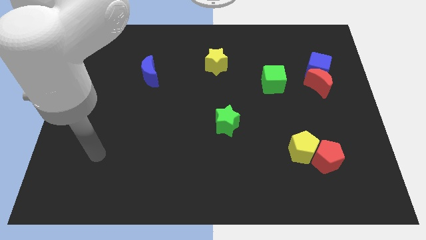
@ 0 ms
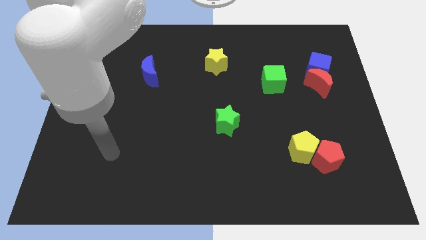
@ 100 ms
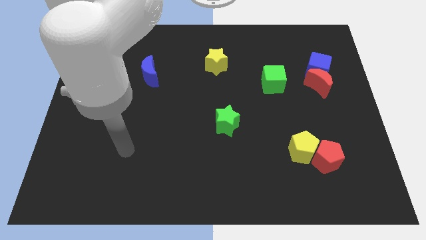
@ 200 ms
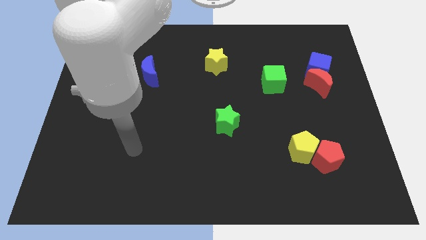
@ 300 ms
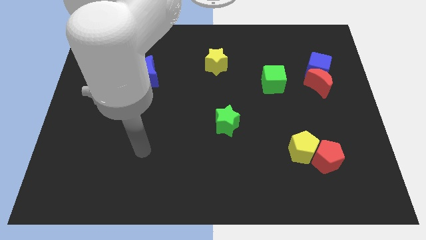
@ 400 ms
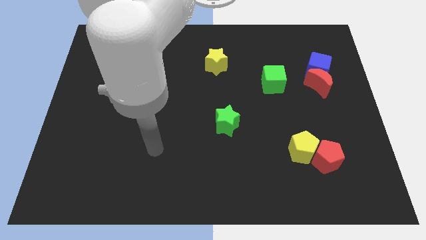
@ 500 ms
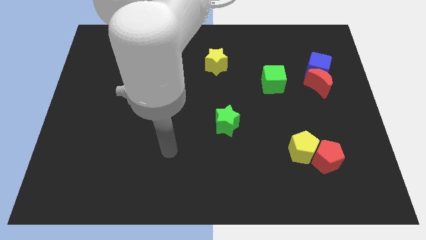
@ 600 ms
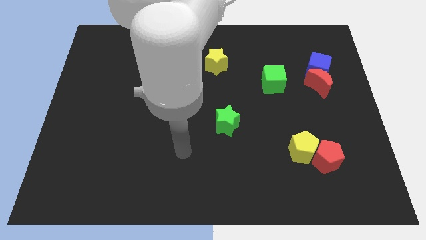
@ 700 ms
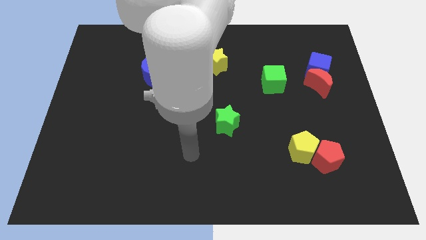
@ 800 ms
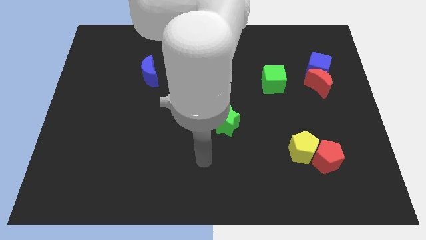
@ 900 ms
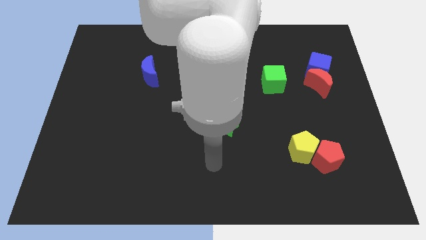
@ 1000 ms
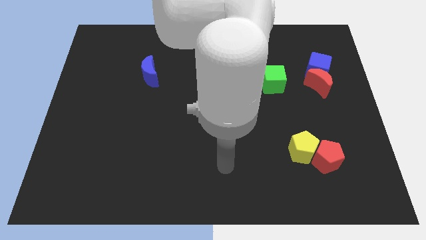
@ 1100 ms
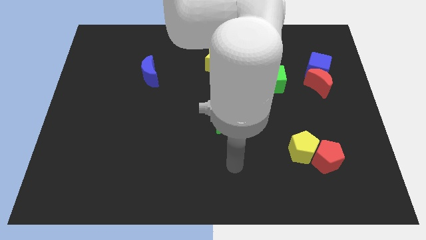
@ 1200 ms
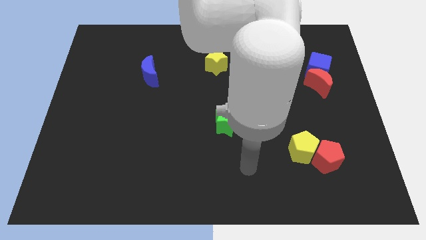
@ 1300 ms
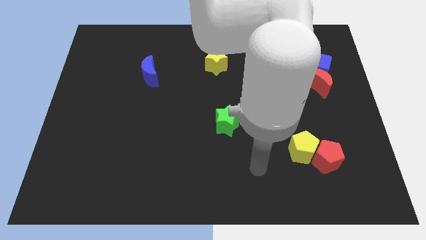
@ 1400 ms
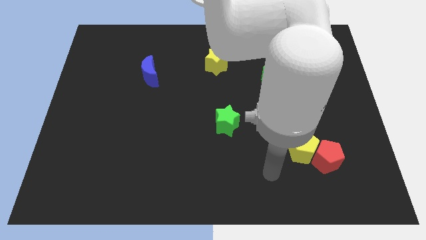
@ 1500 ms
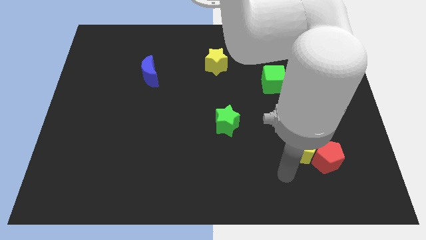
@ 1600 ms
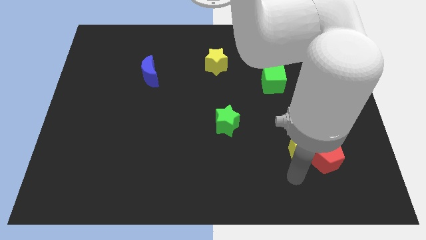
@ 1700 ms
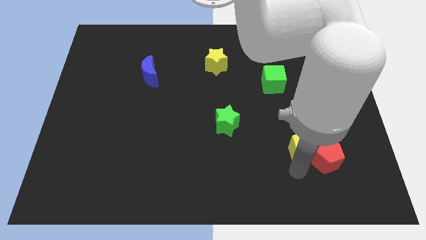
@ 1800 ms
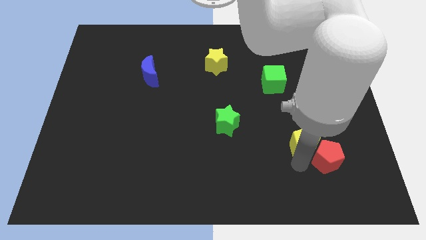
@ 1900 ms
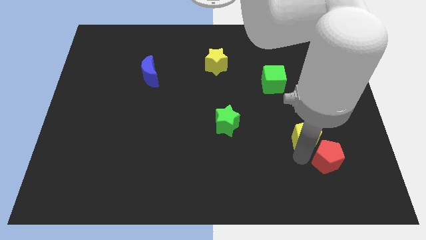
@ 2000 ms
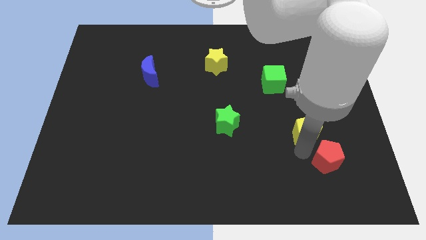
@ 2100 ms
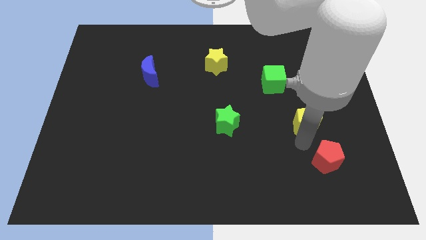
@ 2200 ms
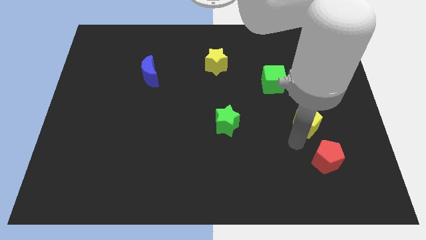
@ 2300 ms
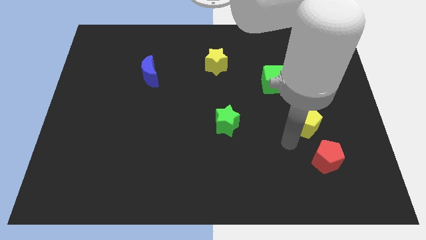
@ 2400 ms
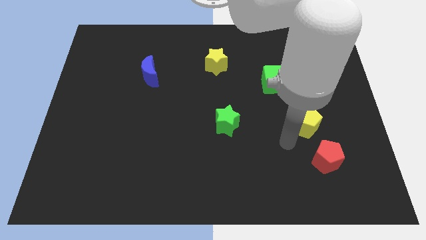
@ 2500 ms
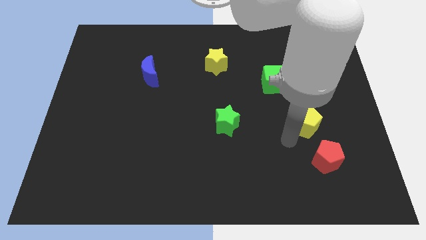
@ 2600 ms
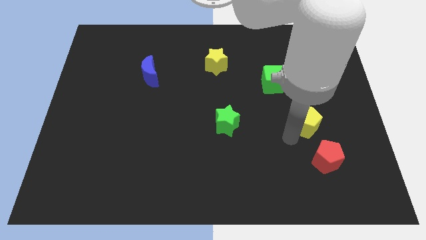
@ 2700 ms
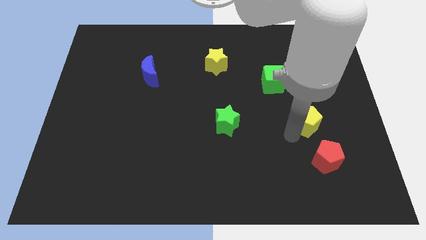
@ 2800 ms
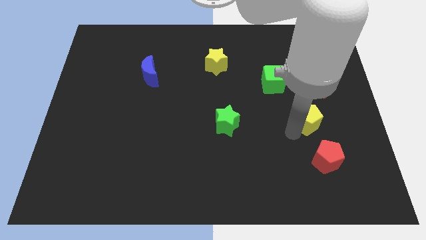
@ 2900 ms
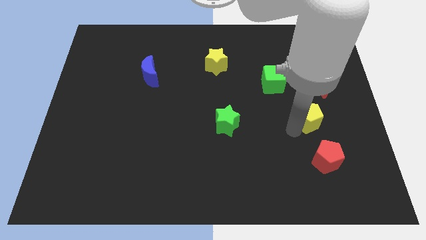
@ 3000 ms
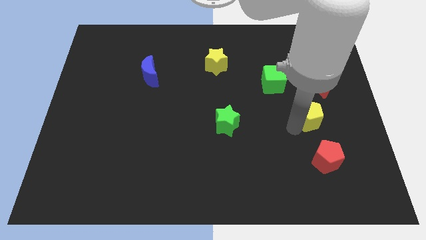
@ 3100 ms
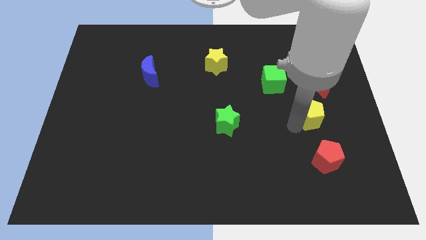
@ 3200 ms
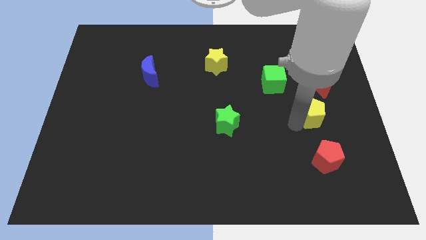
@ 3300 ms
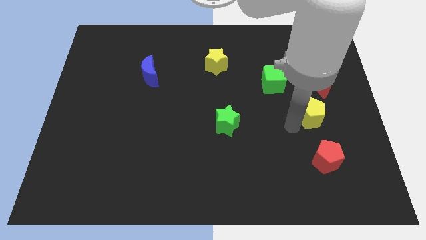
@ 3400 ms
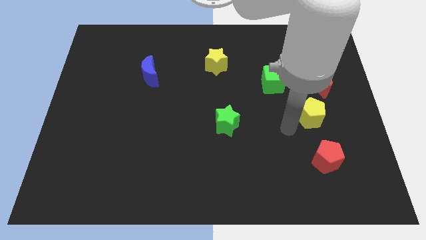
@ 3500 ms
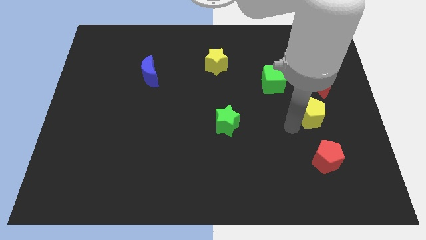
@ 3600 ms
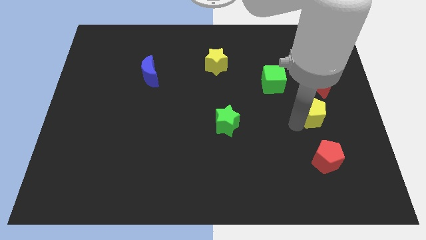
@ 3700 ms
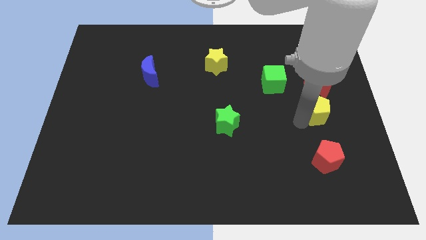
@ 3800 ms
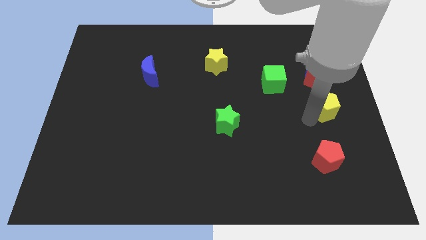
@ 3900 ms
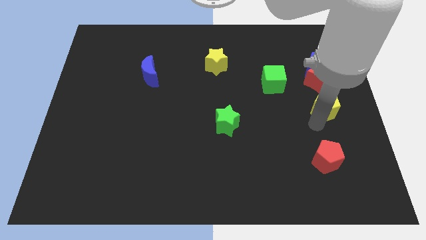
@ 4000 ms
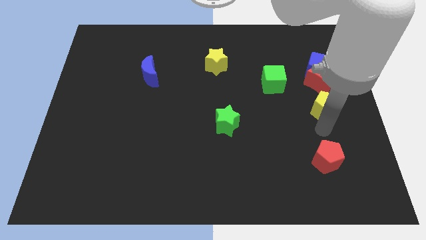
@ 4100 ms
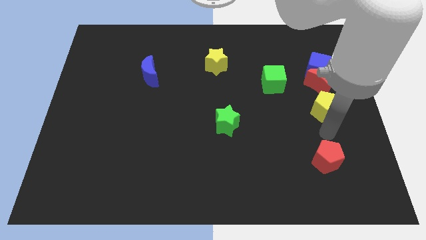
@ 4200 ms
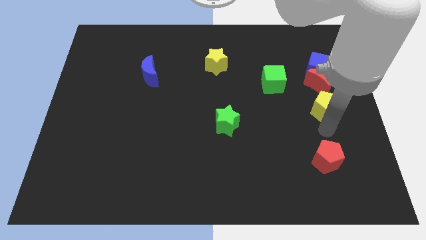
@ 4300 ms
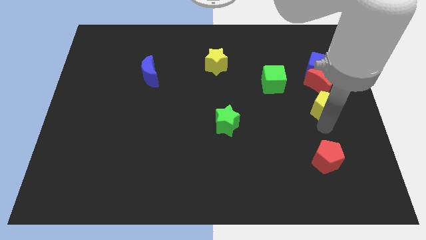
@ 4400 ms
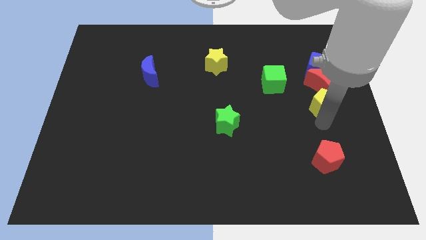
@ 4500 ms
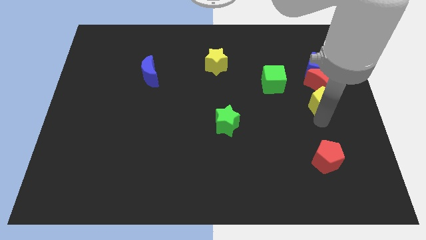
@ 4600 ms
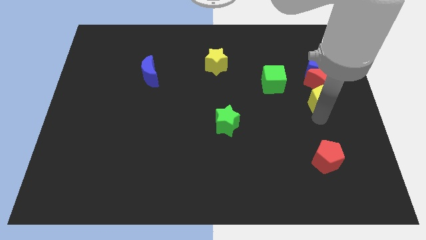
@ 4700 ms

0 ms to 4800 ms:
slide the yellow pentagon close to the red moon

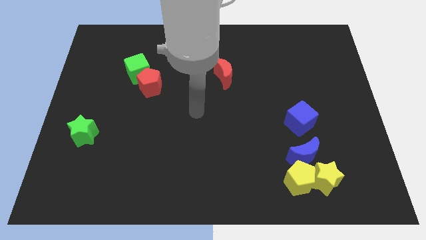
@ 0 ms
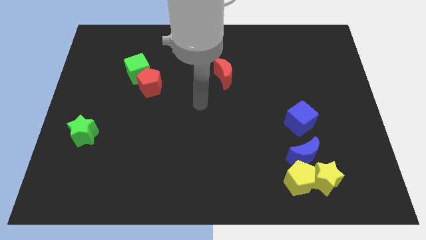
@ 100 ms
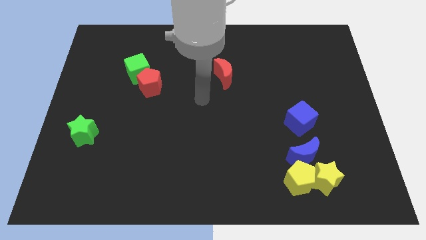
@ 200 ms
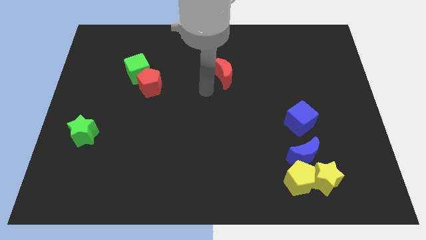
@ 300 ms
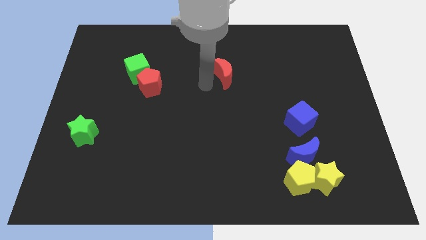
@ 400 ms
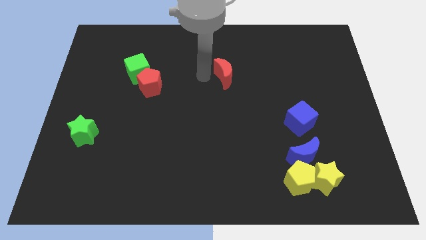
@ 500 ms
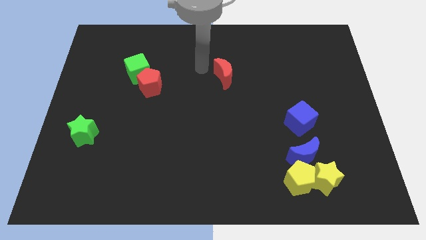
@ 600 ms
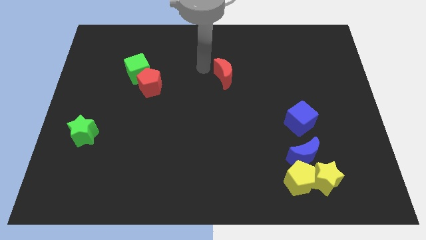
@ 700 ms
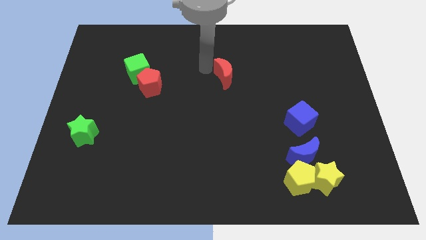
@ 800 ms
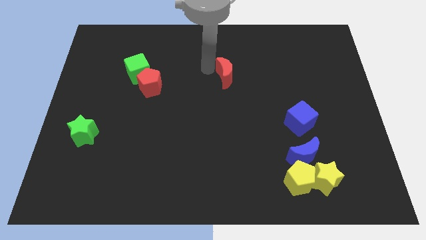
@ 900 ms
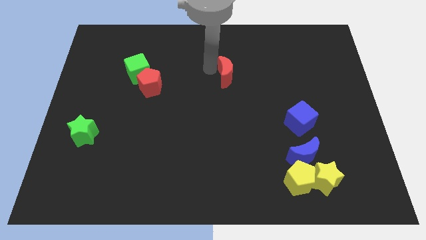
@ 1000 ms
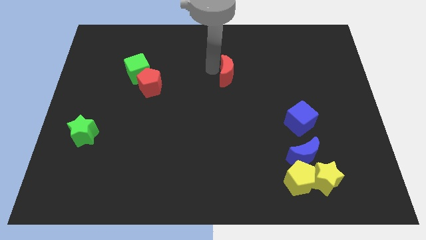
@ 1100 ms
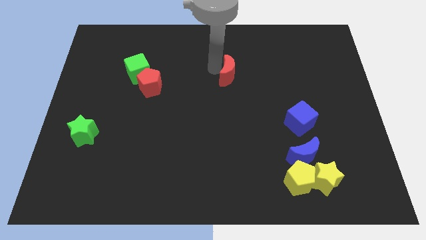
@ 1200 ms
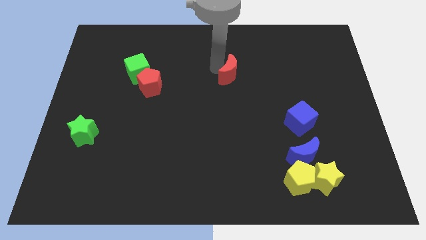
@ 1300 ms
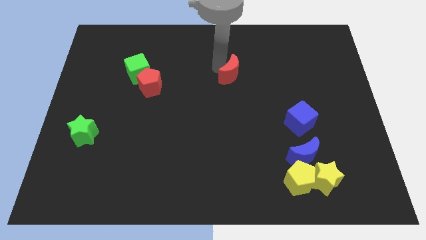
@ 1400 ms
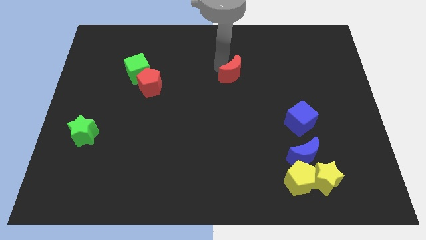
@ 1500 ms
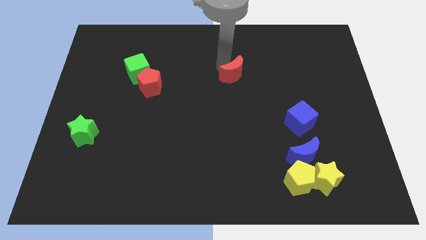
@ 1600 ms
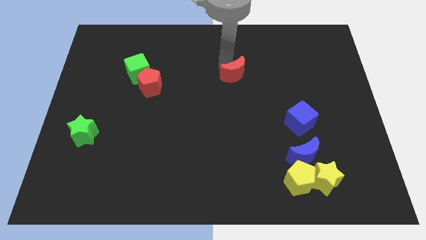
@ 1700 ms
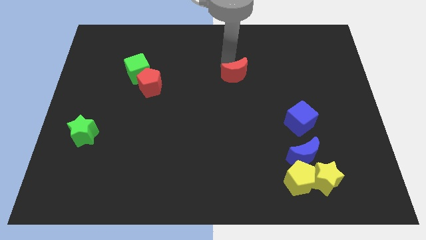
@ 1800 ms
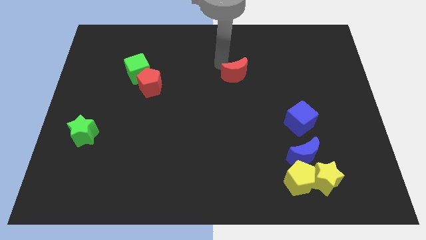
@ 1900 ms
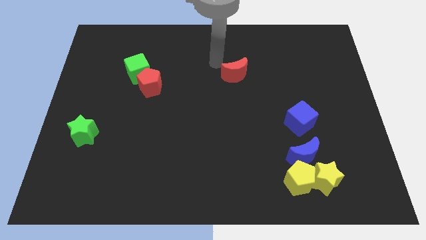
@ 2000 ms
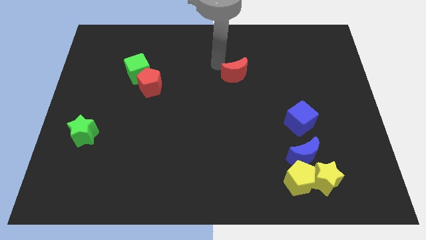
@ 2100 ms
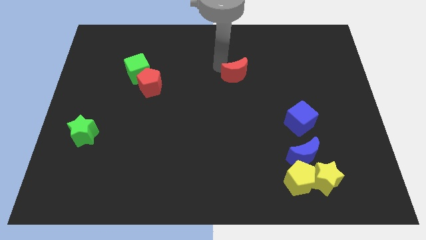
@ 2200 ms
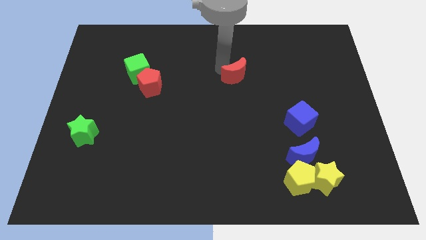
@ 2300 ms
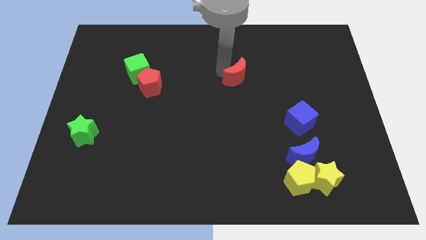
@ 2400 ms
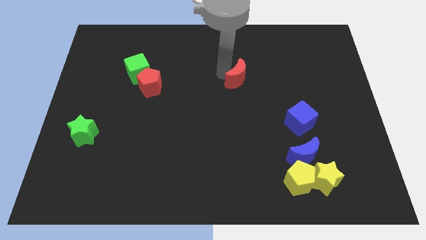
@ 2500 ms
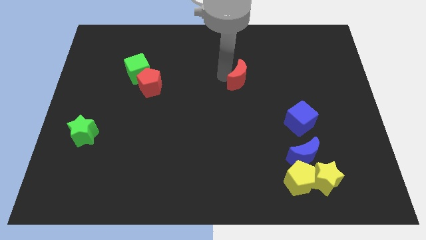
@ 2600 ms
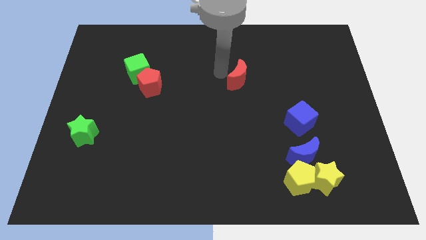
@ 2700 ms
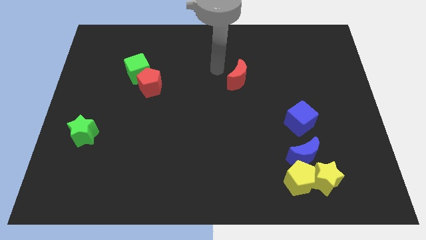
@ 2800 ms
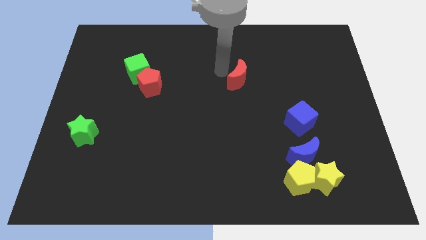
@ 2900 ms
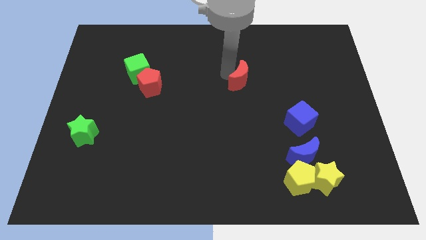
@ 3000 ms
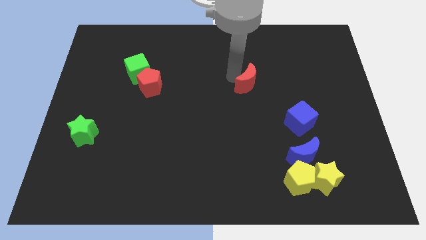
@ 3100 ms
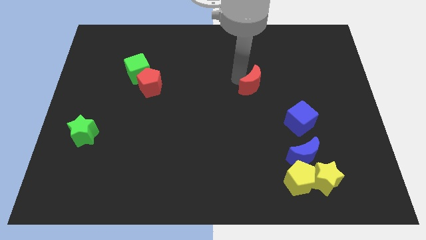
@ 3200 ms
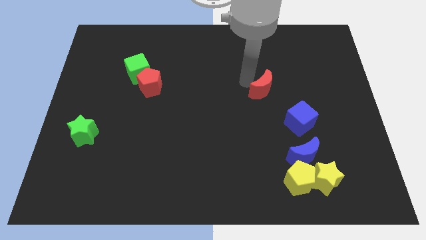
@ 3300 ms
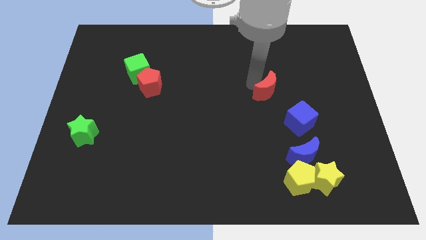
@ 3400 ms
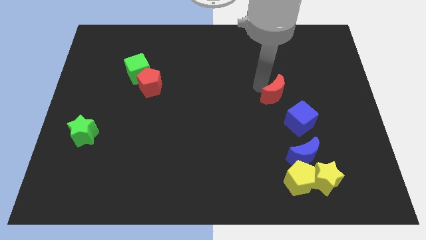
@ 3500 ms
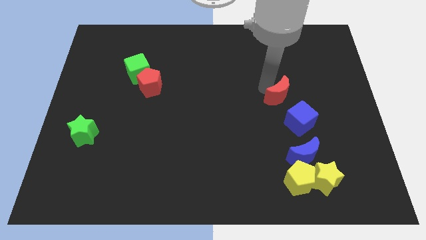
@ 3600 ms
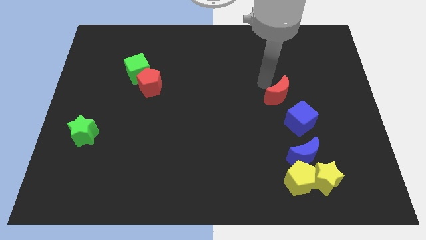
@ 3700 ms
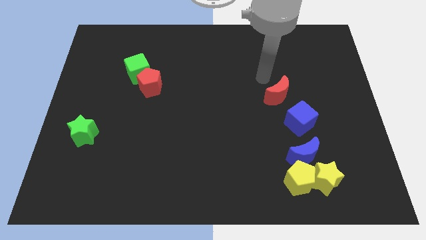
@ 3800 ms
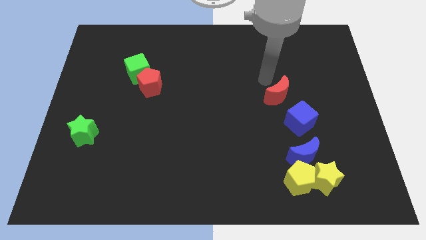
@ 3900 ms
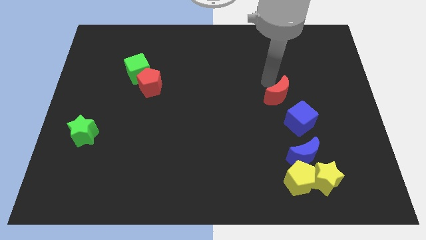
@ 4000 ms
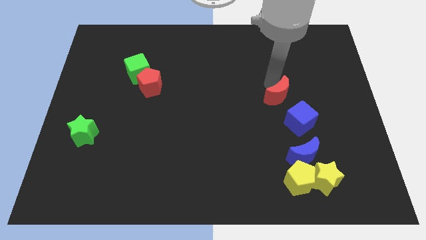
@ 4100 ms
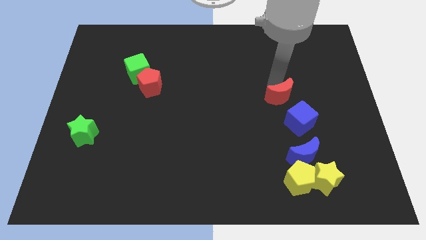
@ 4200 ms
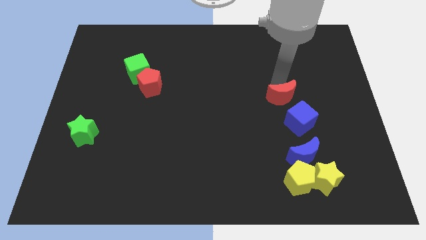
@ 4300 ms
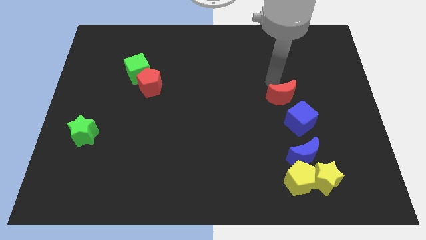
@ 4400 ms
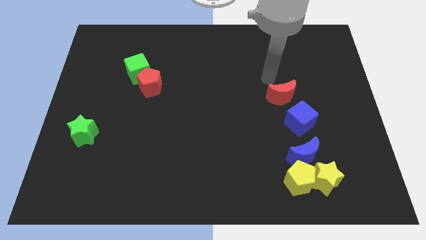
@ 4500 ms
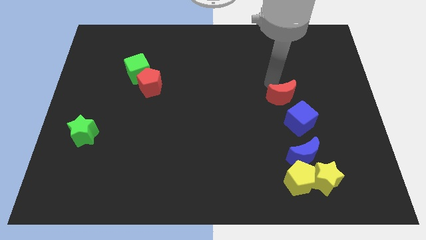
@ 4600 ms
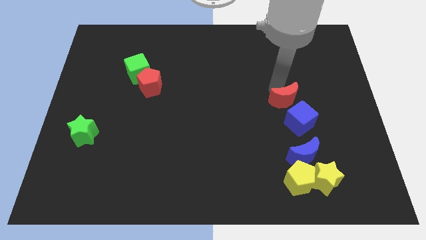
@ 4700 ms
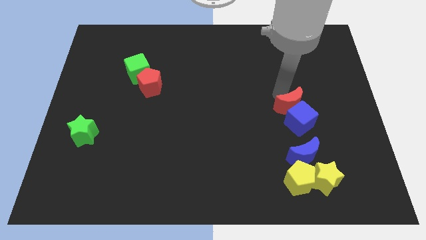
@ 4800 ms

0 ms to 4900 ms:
put the red moon towards the blue cube
